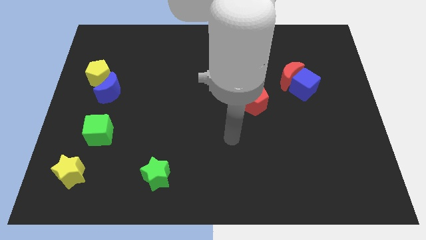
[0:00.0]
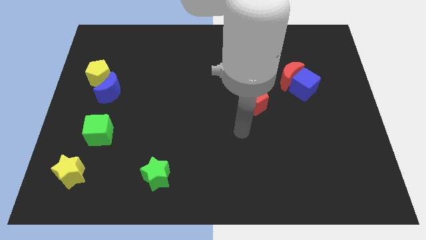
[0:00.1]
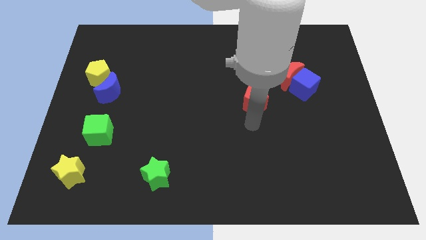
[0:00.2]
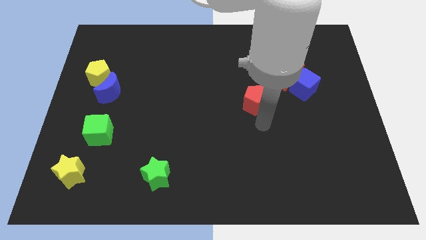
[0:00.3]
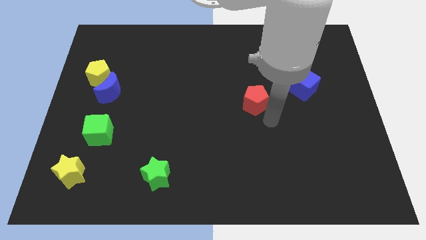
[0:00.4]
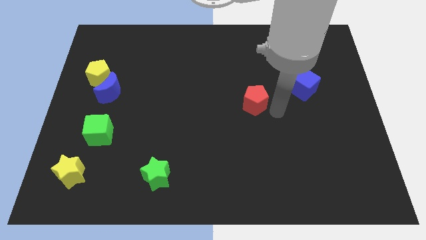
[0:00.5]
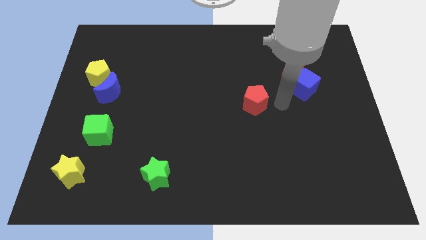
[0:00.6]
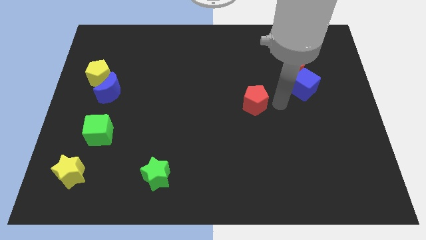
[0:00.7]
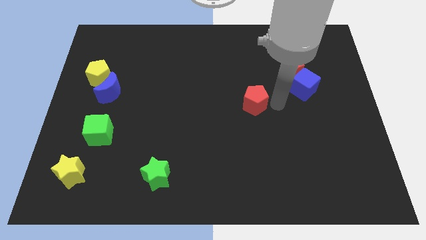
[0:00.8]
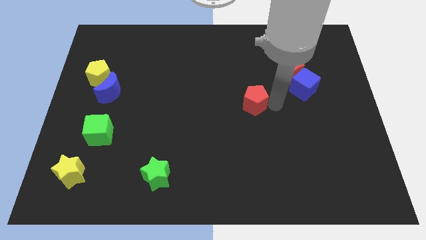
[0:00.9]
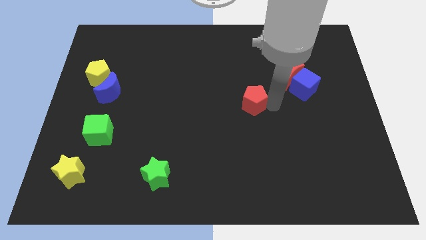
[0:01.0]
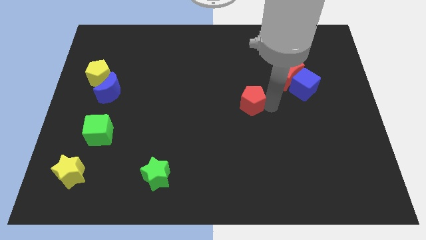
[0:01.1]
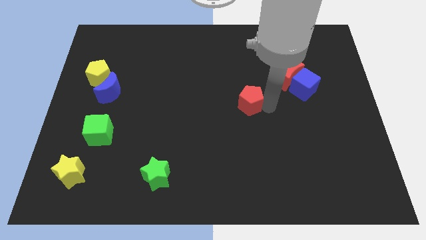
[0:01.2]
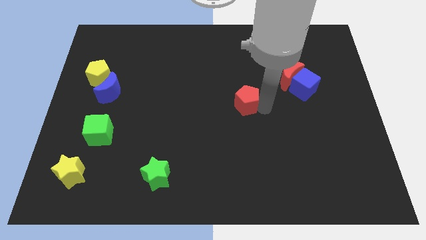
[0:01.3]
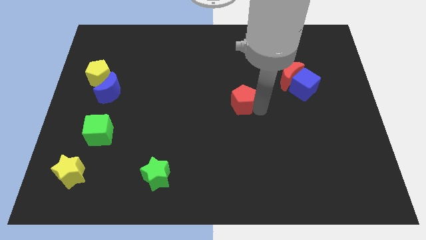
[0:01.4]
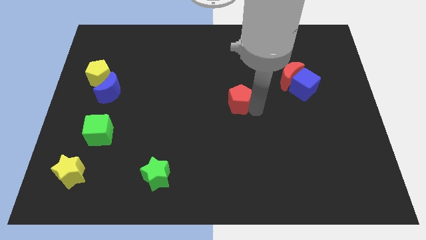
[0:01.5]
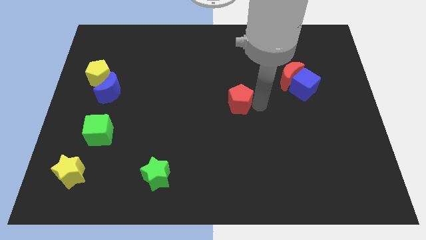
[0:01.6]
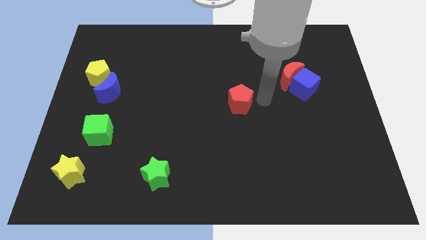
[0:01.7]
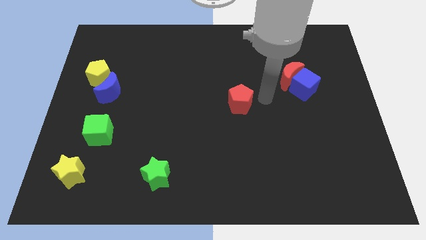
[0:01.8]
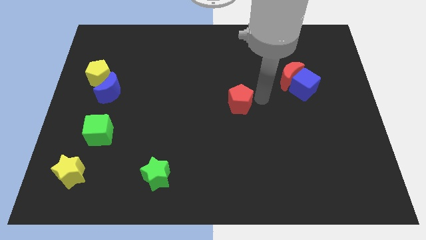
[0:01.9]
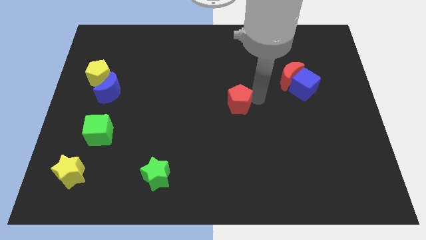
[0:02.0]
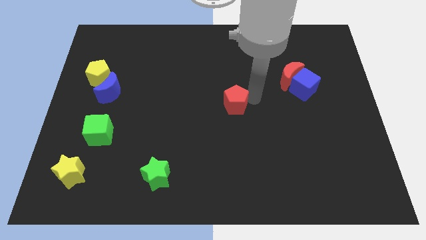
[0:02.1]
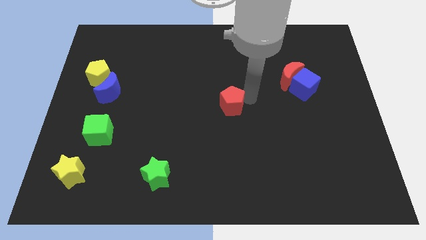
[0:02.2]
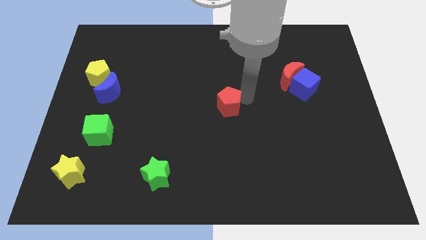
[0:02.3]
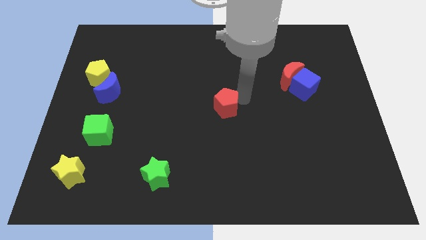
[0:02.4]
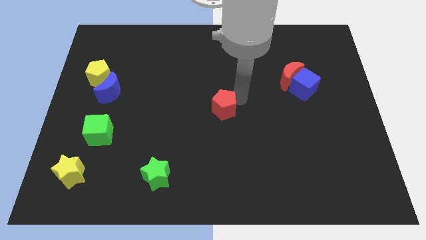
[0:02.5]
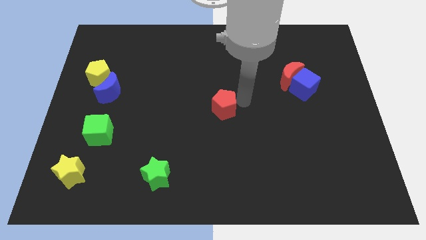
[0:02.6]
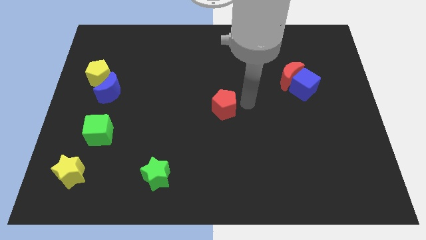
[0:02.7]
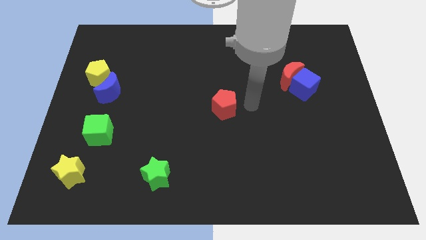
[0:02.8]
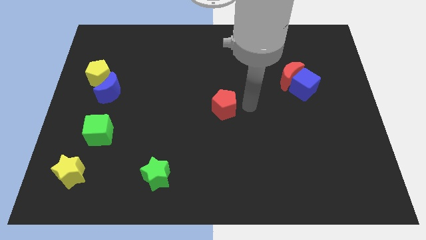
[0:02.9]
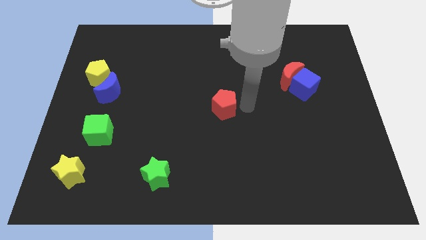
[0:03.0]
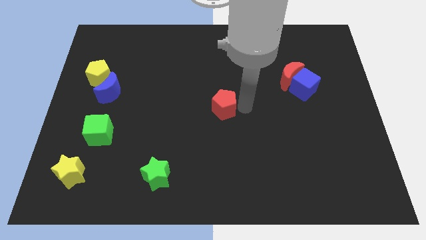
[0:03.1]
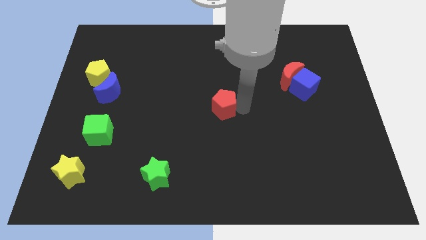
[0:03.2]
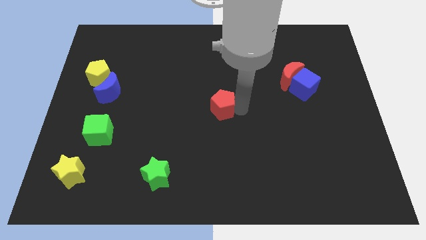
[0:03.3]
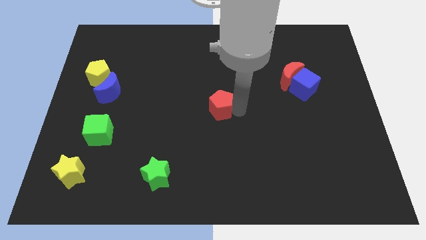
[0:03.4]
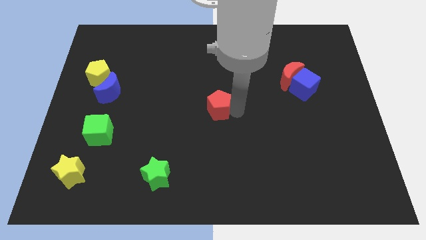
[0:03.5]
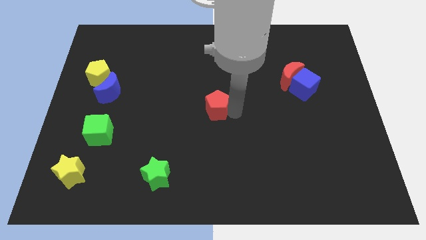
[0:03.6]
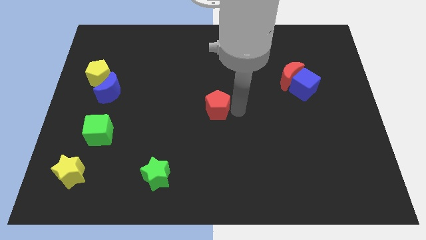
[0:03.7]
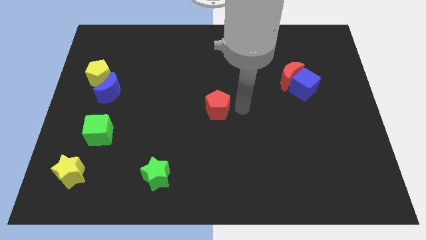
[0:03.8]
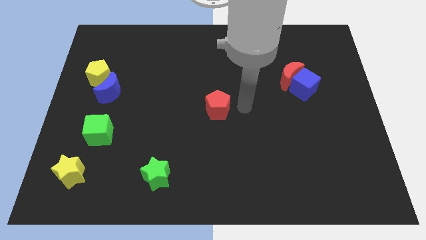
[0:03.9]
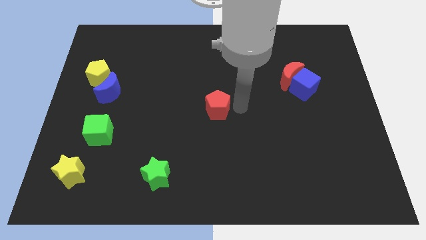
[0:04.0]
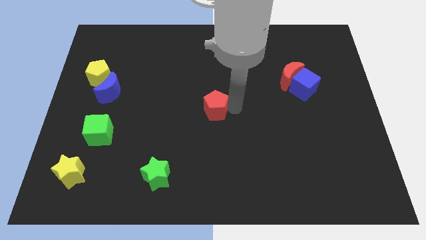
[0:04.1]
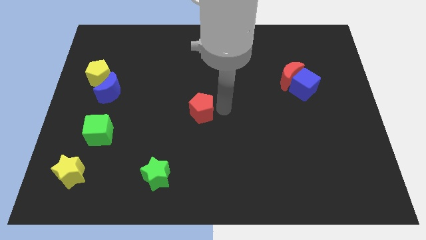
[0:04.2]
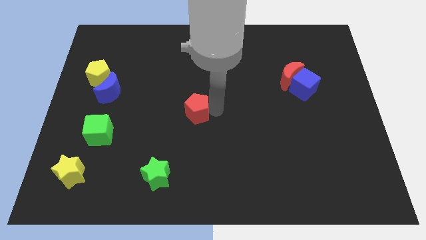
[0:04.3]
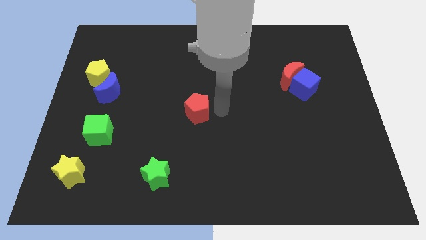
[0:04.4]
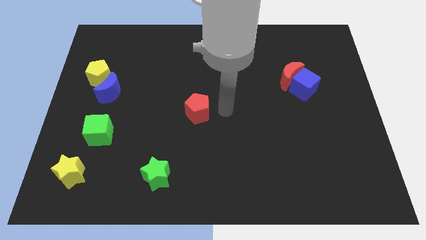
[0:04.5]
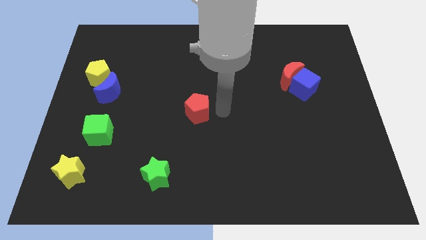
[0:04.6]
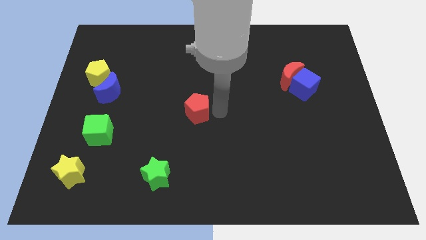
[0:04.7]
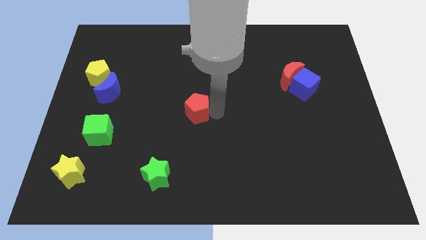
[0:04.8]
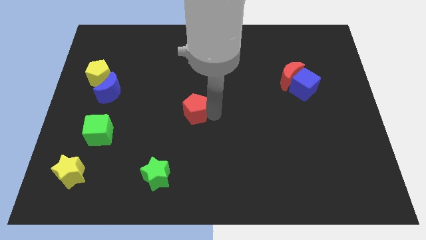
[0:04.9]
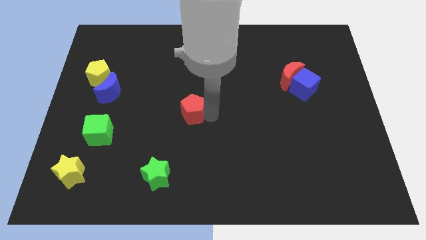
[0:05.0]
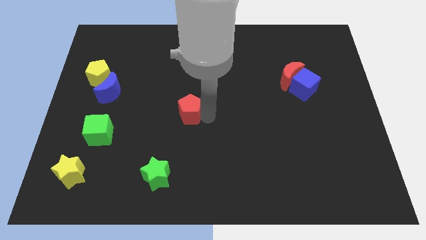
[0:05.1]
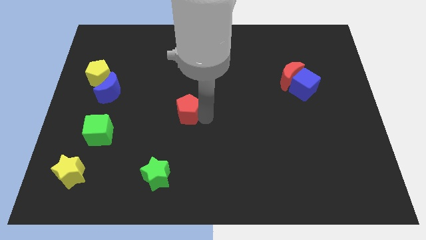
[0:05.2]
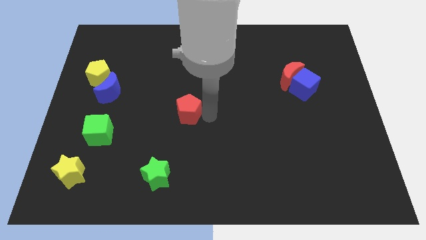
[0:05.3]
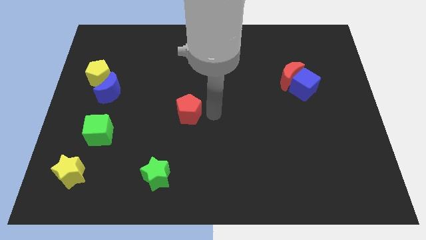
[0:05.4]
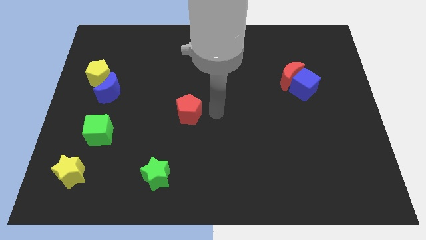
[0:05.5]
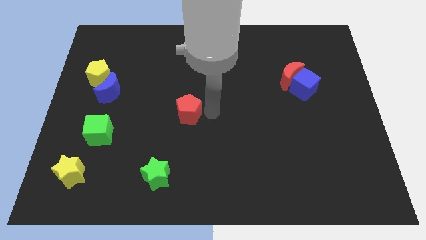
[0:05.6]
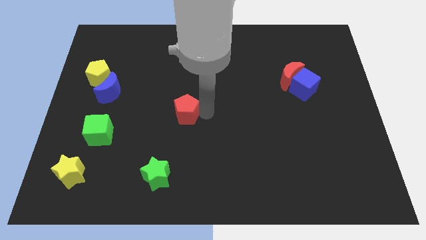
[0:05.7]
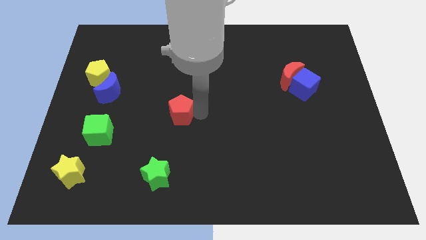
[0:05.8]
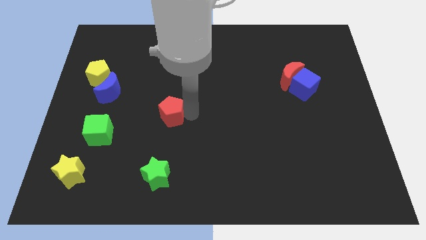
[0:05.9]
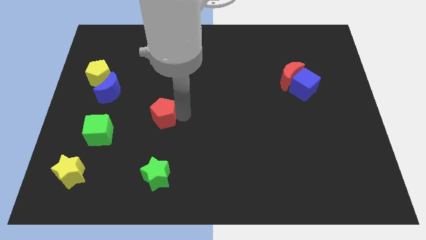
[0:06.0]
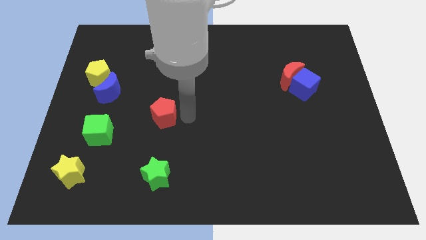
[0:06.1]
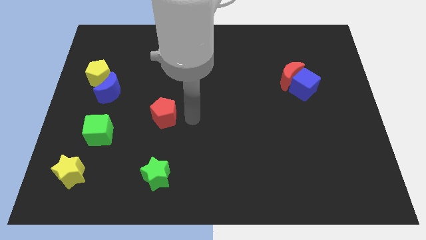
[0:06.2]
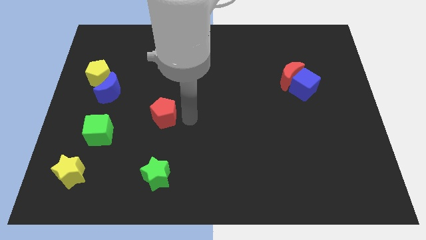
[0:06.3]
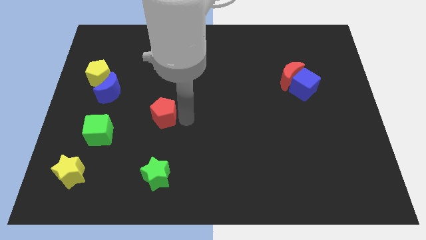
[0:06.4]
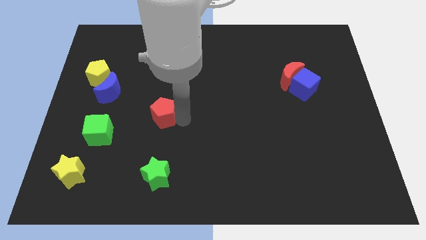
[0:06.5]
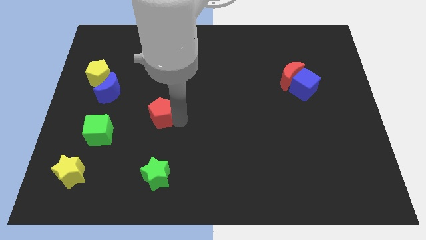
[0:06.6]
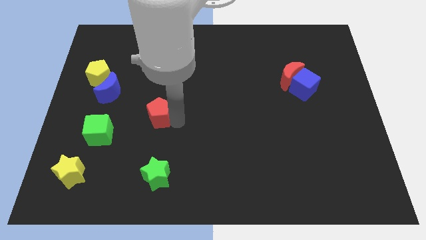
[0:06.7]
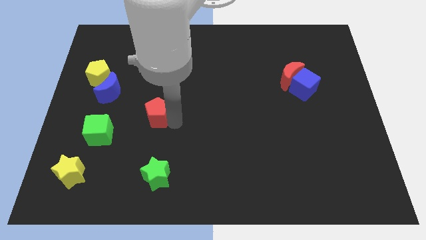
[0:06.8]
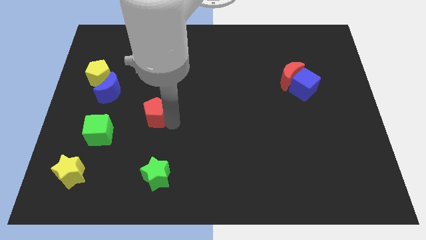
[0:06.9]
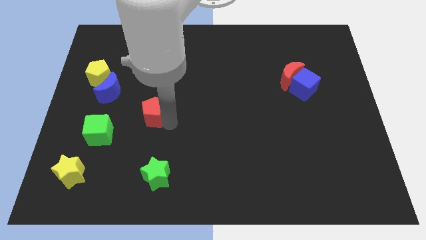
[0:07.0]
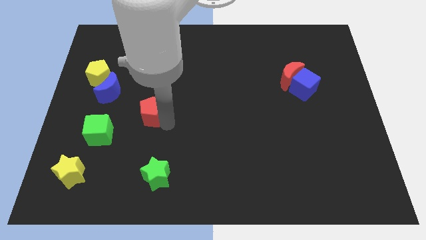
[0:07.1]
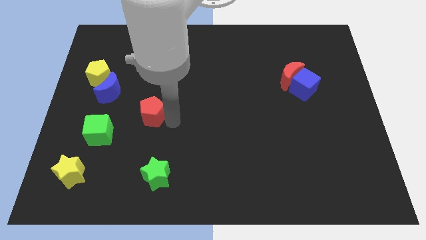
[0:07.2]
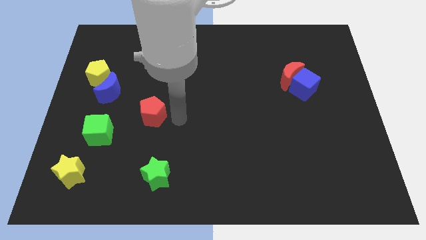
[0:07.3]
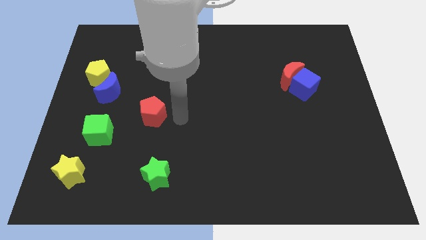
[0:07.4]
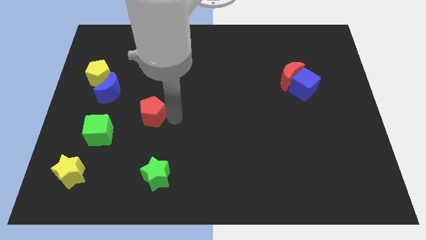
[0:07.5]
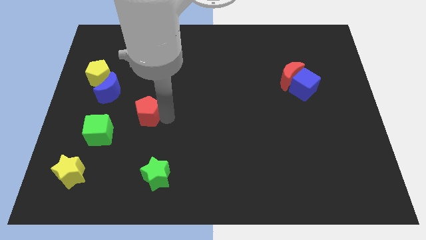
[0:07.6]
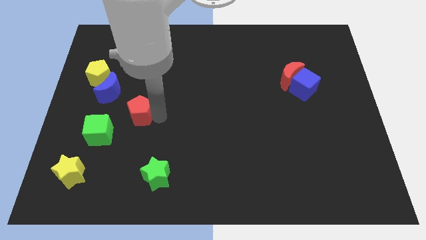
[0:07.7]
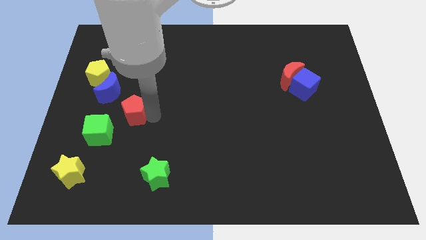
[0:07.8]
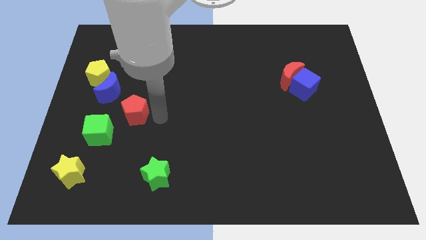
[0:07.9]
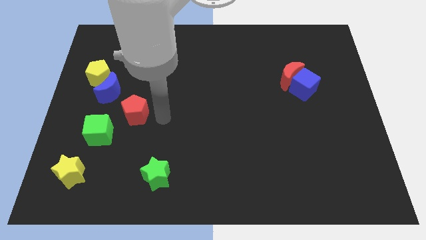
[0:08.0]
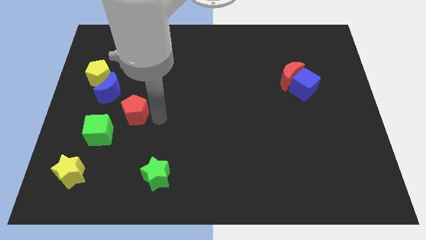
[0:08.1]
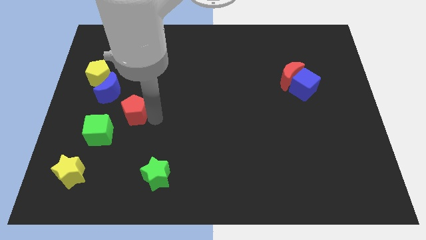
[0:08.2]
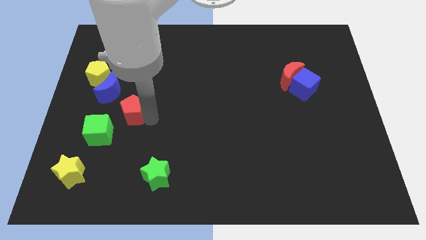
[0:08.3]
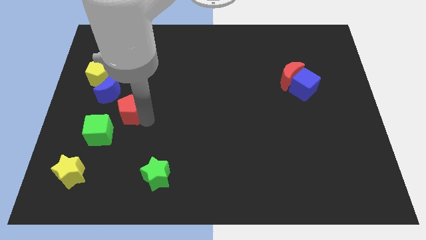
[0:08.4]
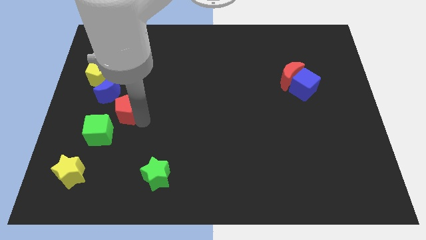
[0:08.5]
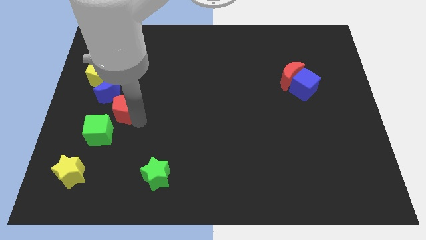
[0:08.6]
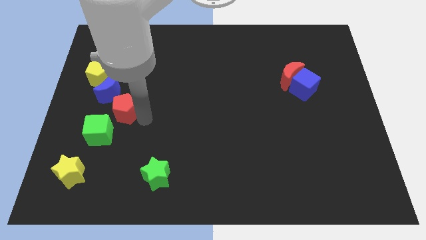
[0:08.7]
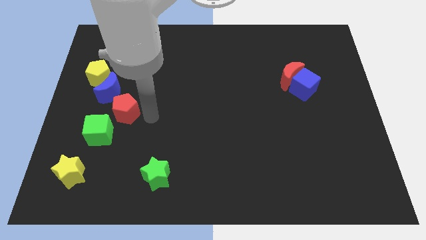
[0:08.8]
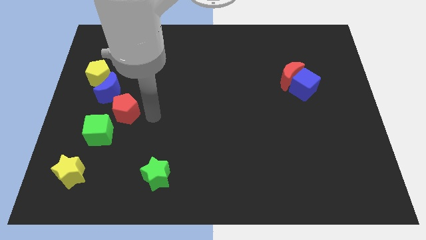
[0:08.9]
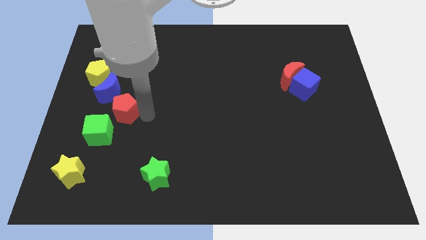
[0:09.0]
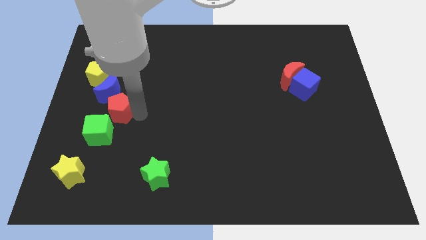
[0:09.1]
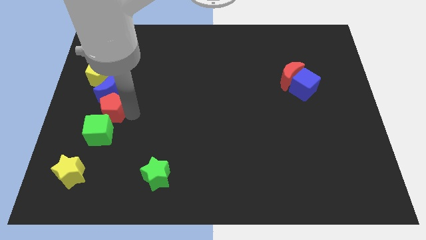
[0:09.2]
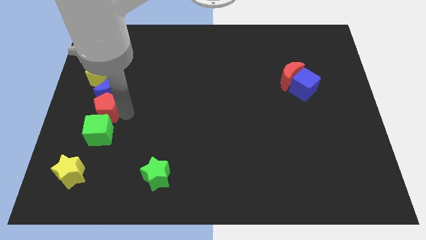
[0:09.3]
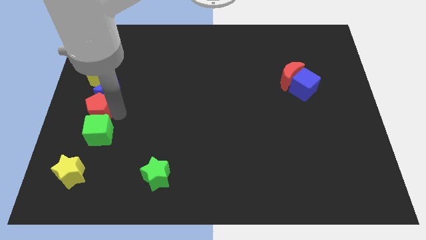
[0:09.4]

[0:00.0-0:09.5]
slide the red pentagon to the center left
